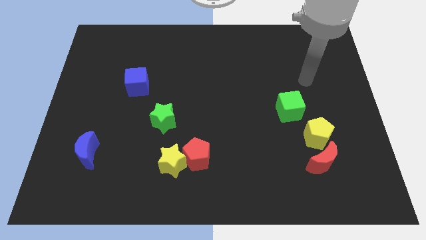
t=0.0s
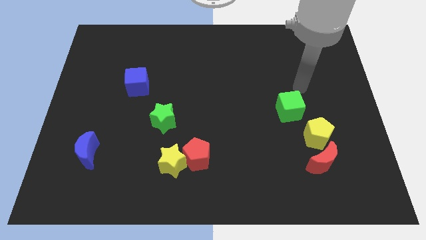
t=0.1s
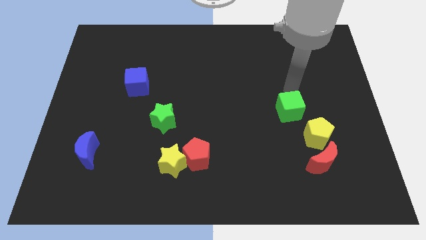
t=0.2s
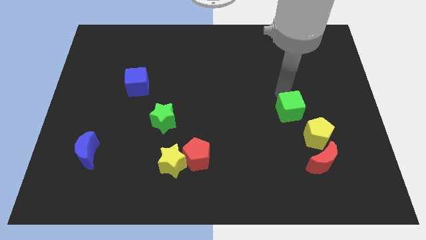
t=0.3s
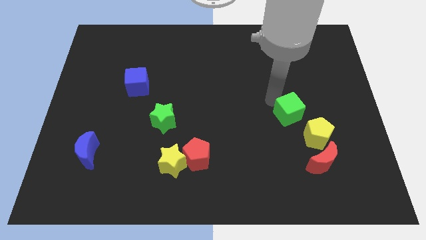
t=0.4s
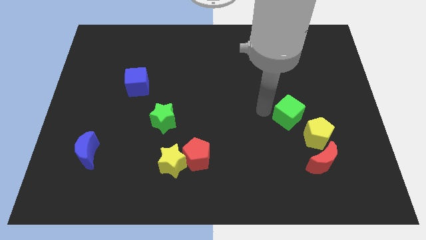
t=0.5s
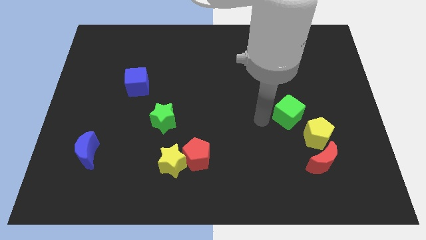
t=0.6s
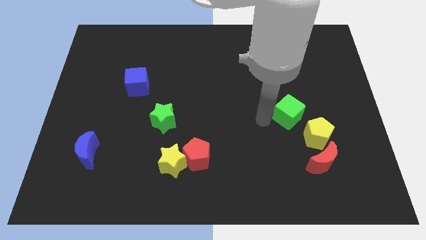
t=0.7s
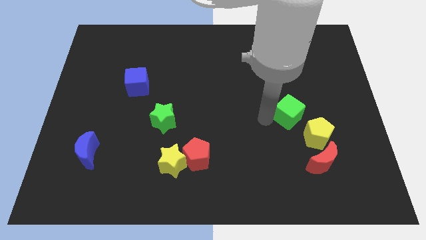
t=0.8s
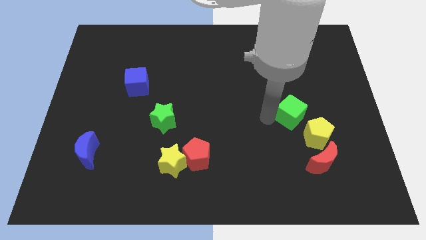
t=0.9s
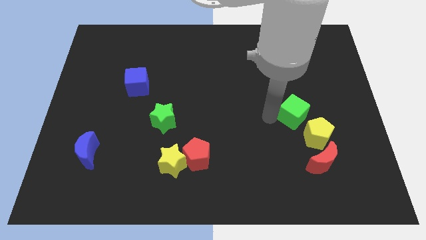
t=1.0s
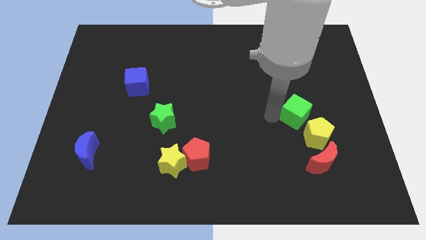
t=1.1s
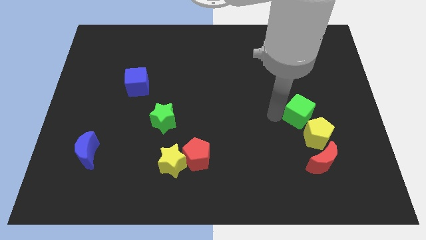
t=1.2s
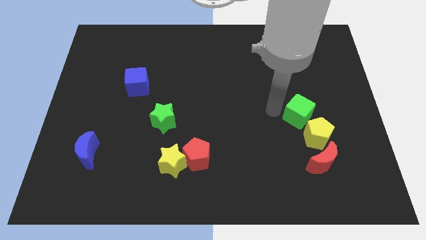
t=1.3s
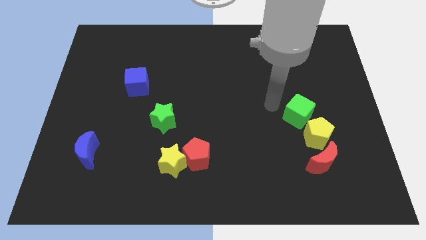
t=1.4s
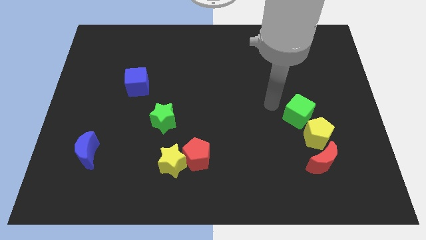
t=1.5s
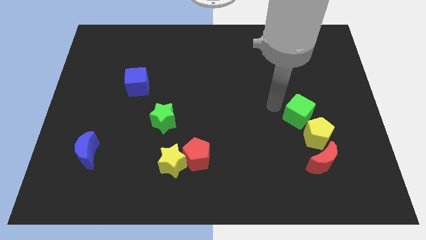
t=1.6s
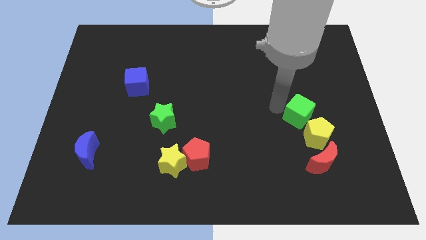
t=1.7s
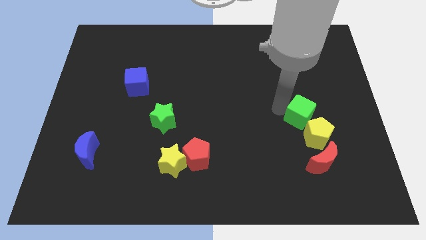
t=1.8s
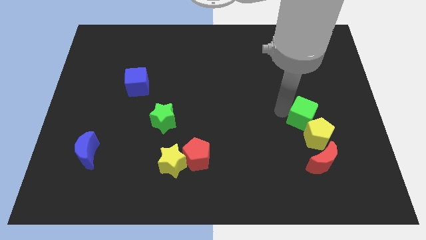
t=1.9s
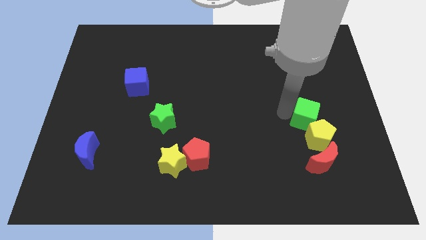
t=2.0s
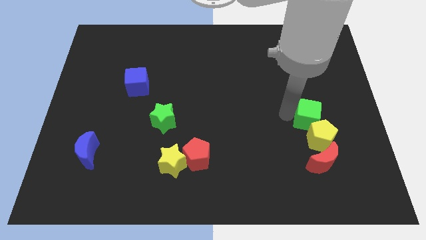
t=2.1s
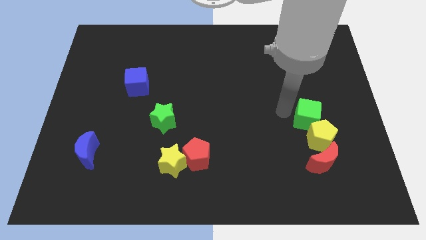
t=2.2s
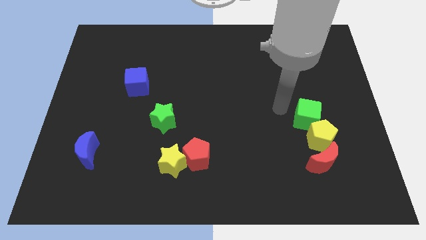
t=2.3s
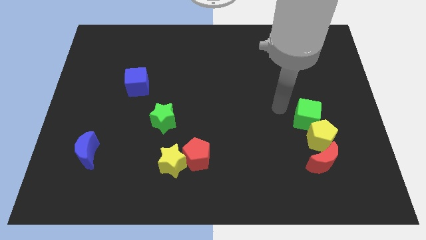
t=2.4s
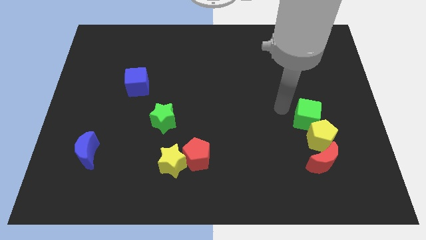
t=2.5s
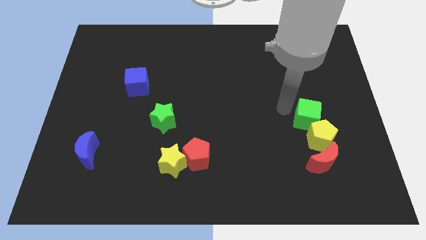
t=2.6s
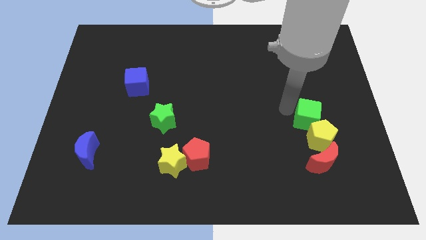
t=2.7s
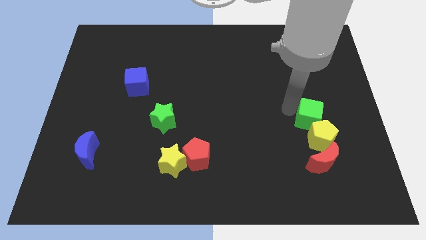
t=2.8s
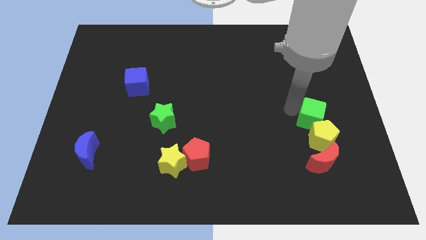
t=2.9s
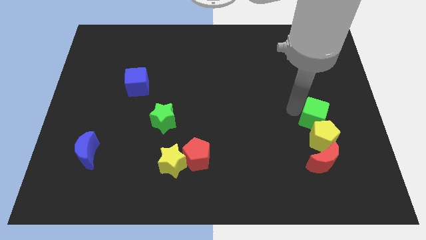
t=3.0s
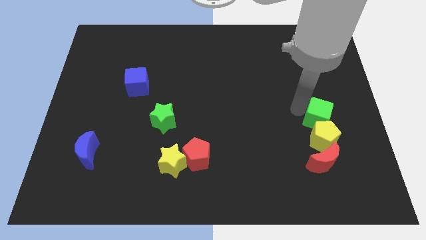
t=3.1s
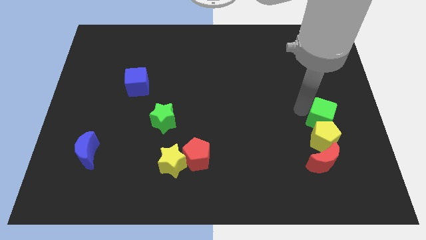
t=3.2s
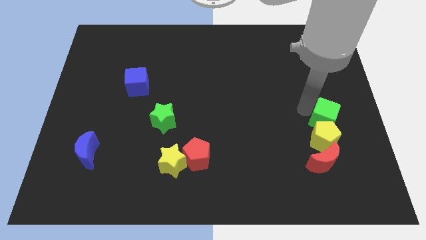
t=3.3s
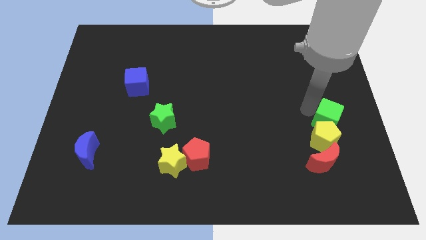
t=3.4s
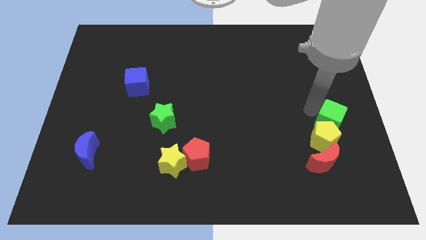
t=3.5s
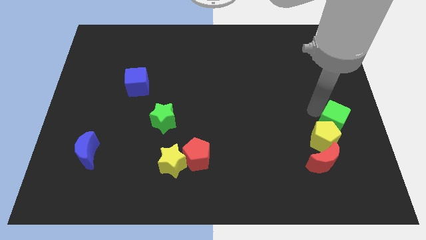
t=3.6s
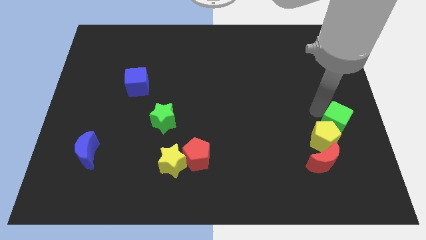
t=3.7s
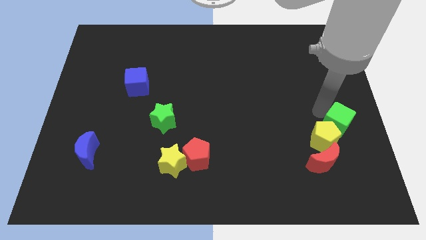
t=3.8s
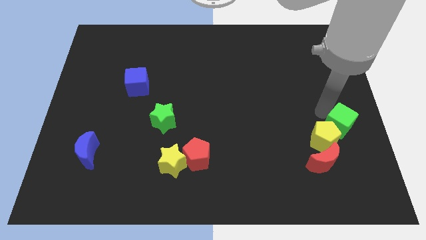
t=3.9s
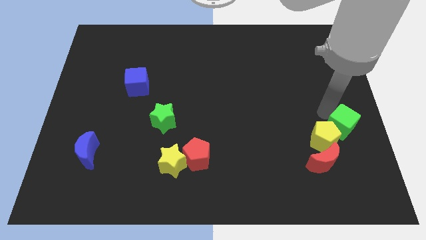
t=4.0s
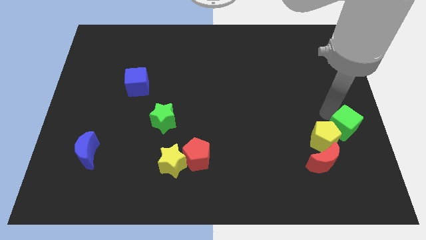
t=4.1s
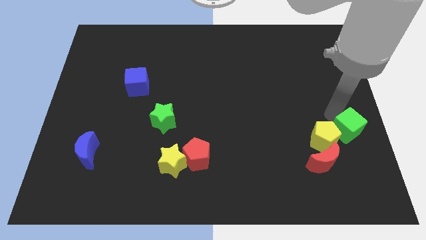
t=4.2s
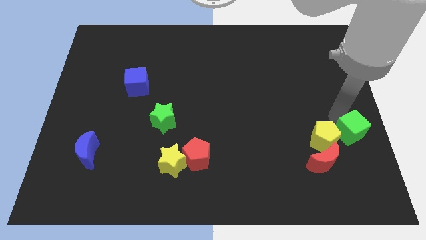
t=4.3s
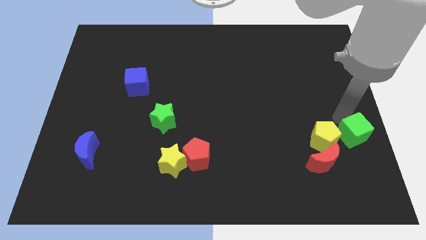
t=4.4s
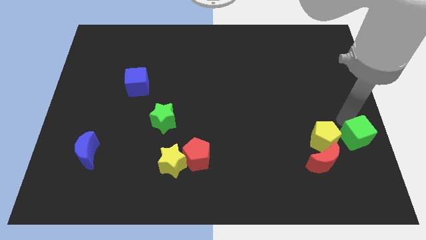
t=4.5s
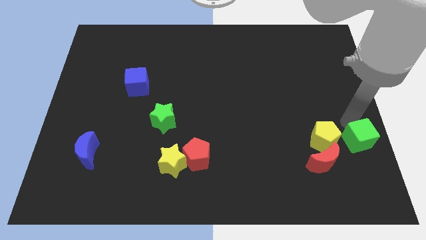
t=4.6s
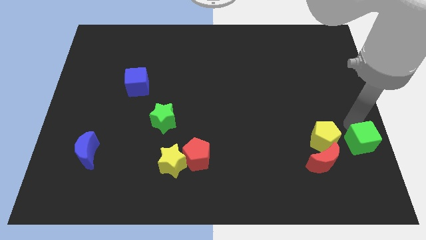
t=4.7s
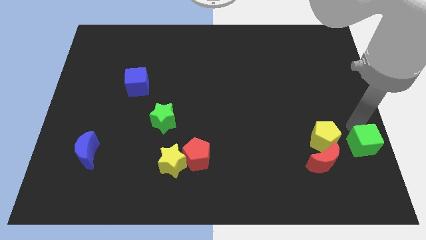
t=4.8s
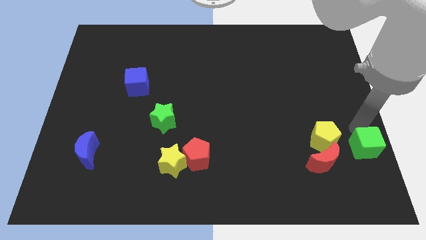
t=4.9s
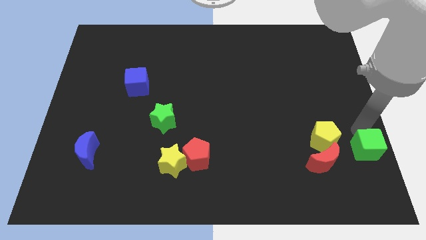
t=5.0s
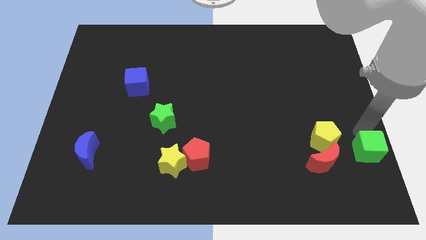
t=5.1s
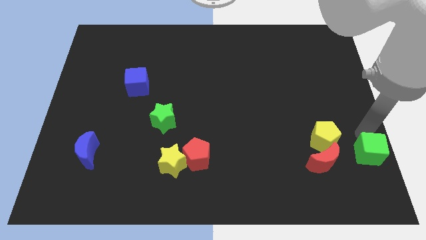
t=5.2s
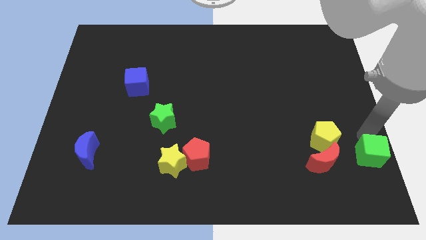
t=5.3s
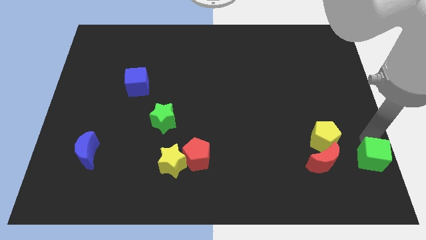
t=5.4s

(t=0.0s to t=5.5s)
put the green cube to the bottom right corner

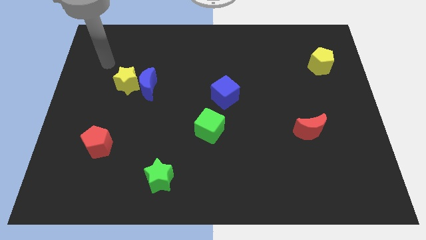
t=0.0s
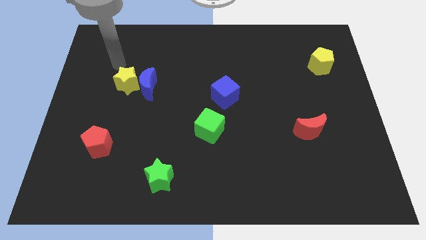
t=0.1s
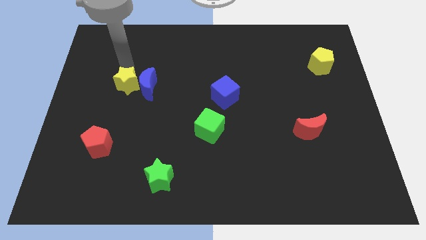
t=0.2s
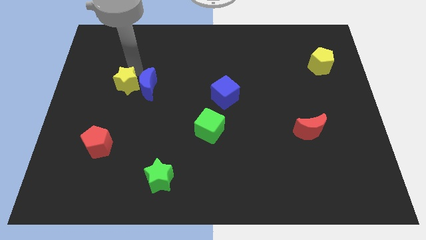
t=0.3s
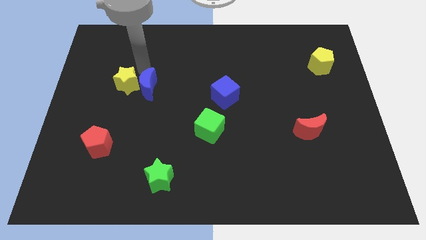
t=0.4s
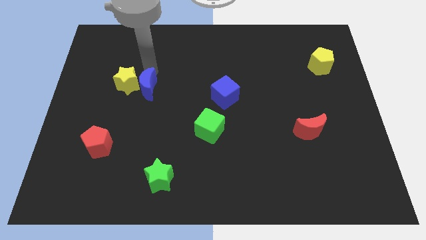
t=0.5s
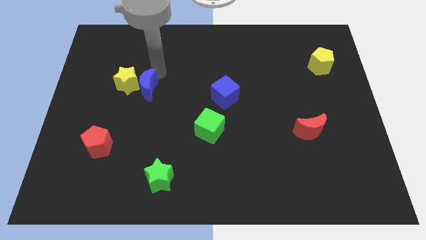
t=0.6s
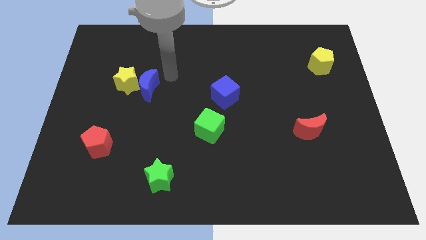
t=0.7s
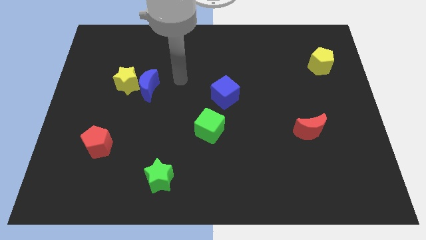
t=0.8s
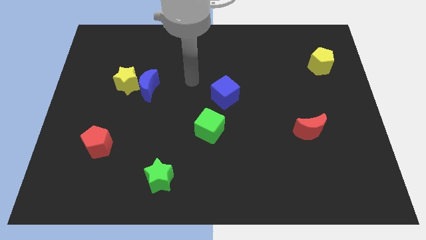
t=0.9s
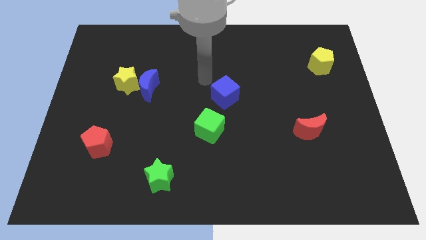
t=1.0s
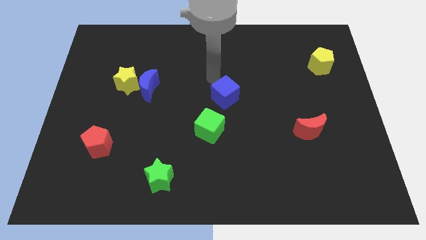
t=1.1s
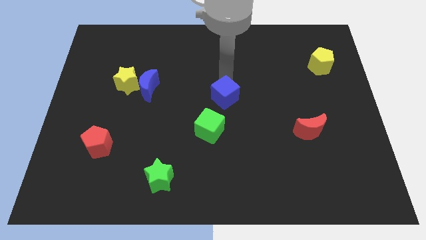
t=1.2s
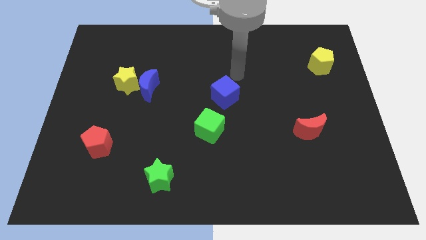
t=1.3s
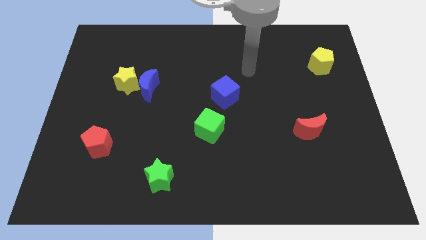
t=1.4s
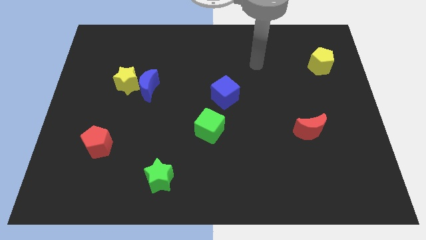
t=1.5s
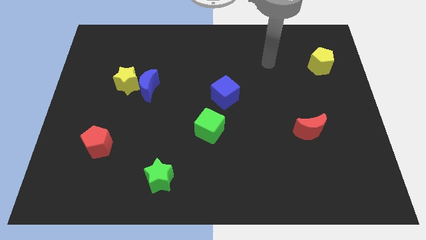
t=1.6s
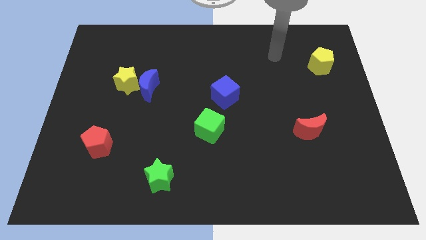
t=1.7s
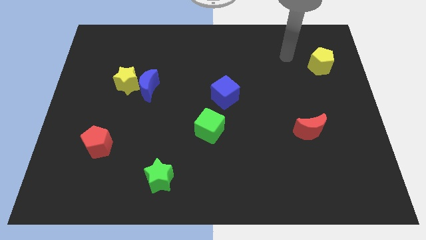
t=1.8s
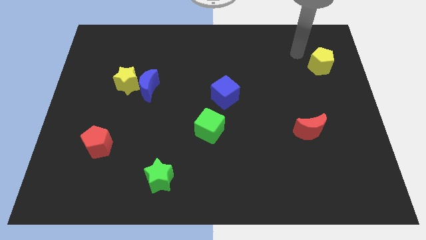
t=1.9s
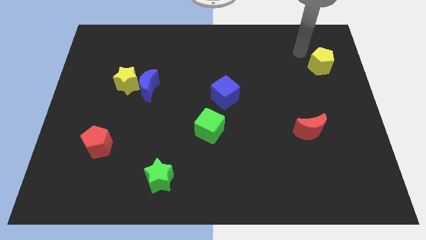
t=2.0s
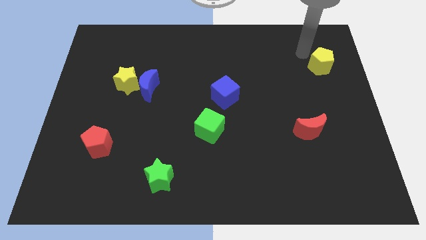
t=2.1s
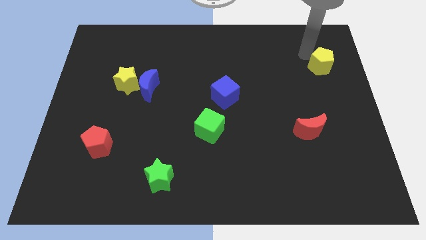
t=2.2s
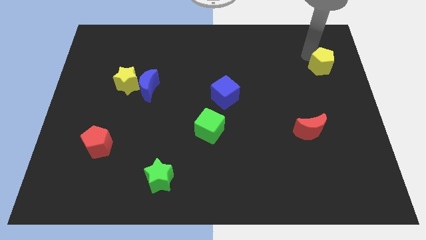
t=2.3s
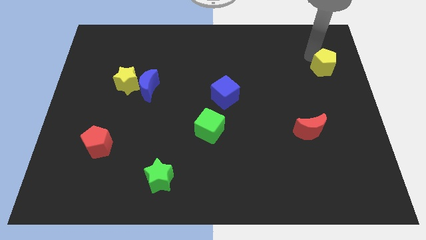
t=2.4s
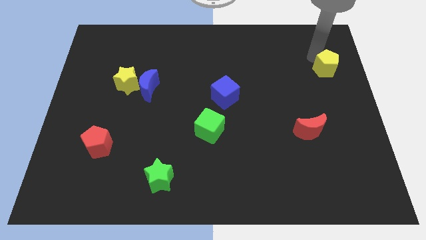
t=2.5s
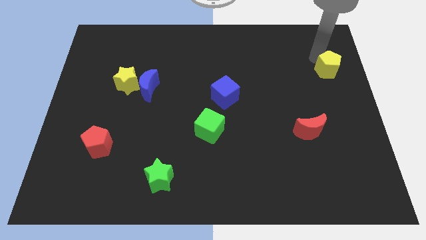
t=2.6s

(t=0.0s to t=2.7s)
put the yellow pentagon to the right side of the board
